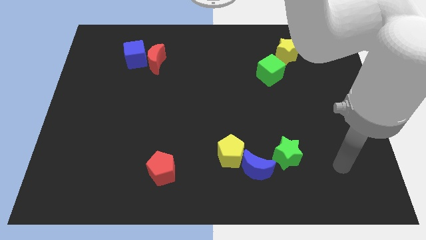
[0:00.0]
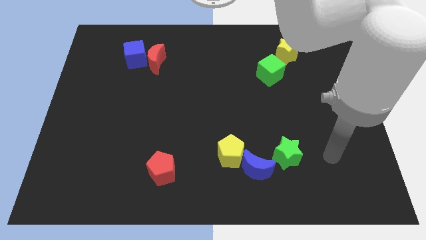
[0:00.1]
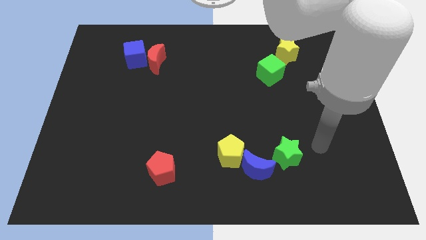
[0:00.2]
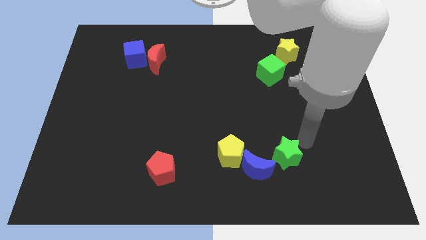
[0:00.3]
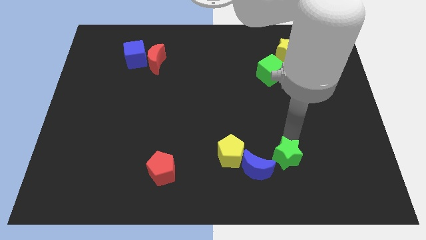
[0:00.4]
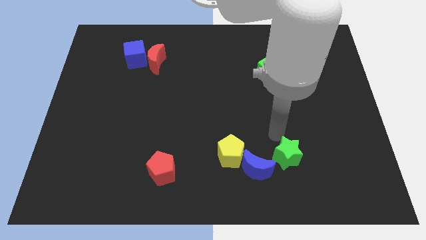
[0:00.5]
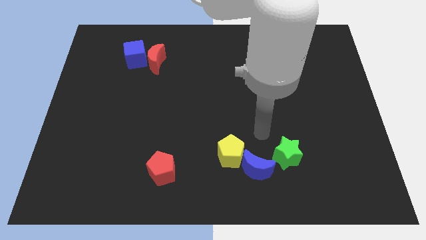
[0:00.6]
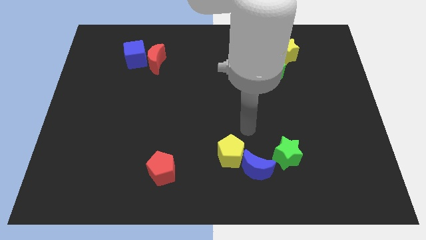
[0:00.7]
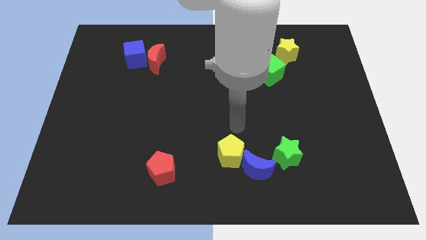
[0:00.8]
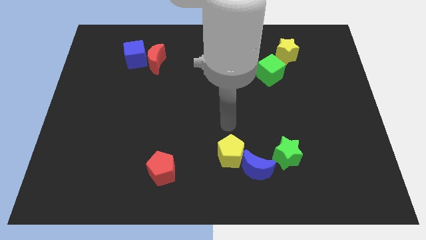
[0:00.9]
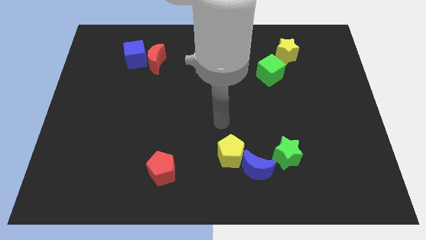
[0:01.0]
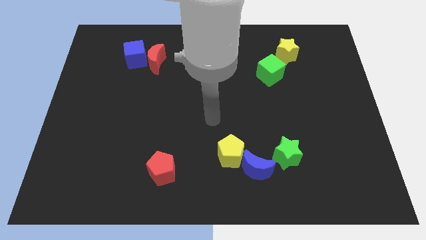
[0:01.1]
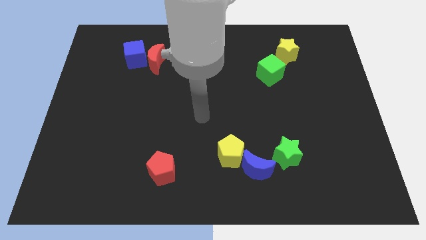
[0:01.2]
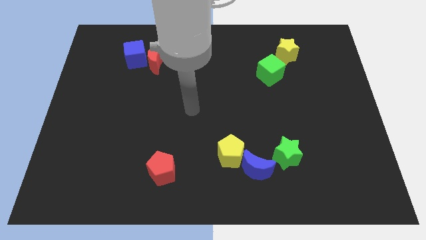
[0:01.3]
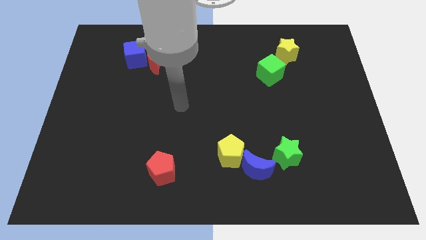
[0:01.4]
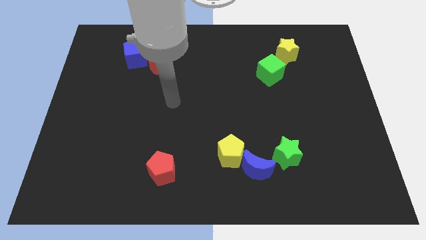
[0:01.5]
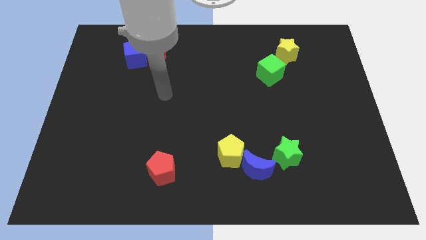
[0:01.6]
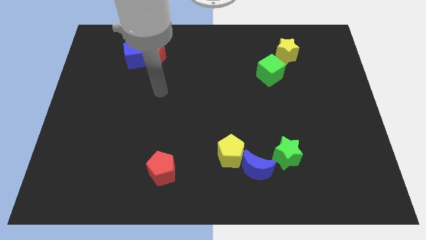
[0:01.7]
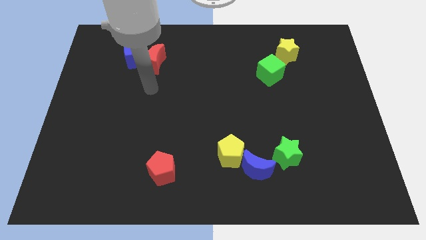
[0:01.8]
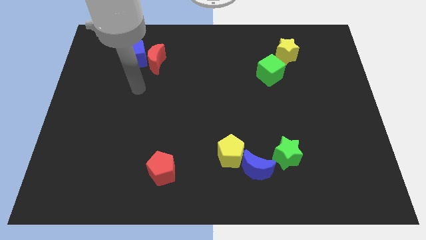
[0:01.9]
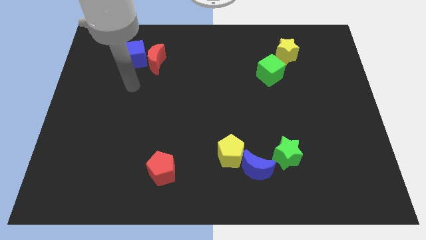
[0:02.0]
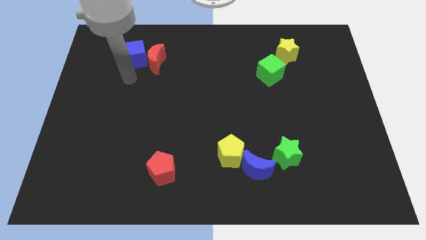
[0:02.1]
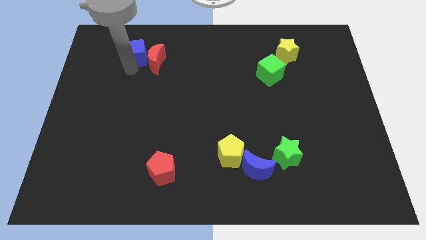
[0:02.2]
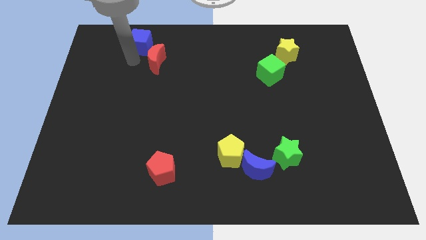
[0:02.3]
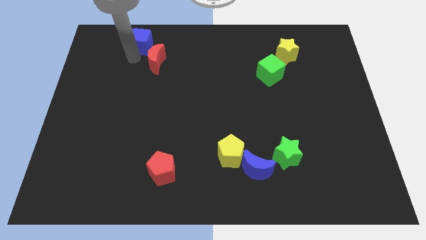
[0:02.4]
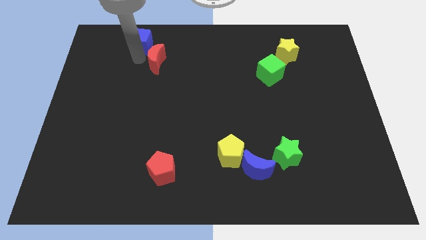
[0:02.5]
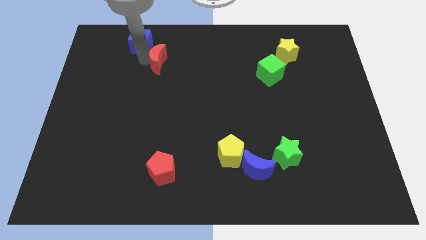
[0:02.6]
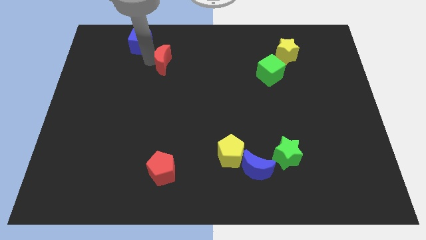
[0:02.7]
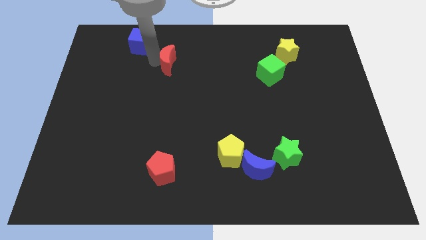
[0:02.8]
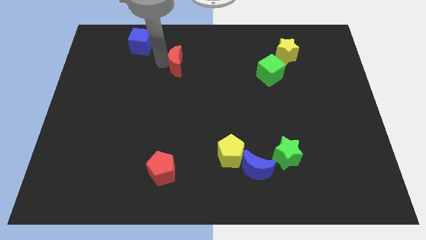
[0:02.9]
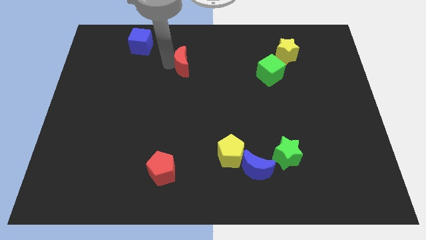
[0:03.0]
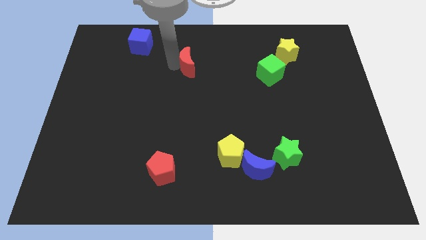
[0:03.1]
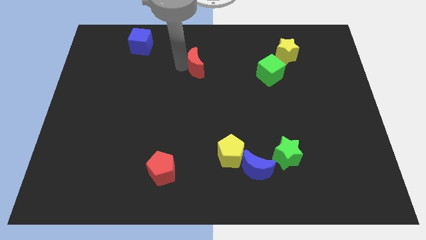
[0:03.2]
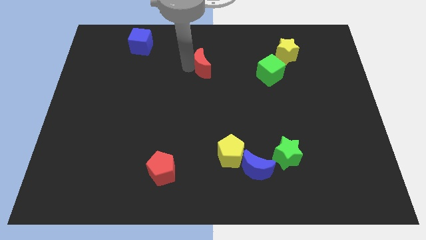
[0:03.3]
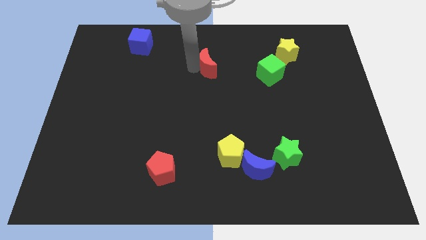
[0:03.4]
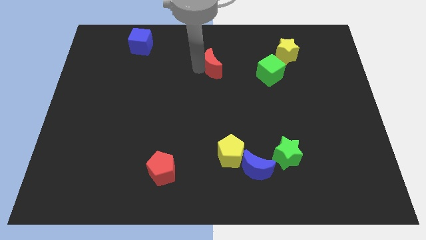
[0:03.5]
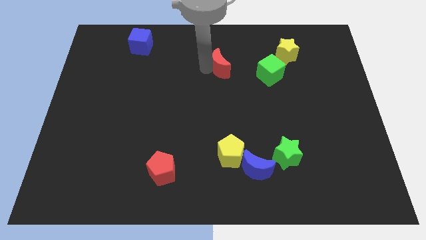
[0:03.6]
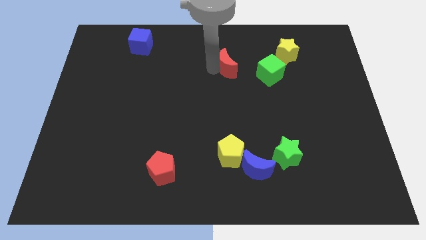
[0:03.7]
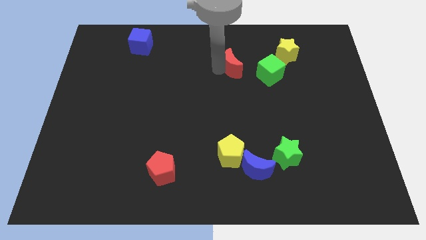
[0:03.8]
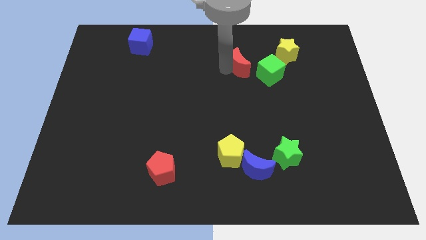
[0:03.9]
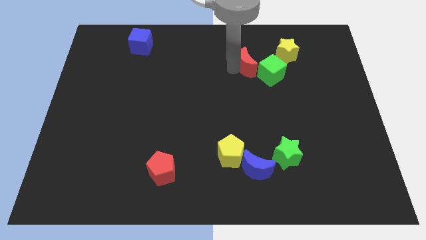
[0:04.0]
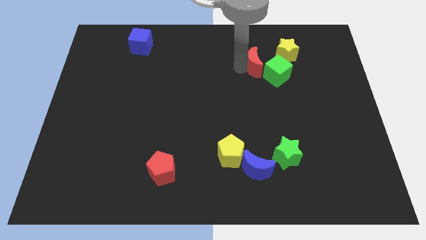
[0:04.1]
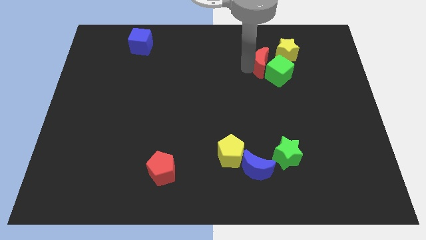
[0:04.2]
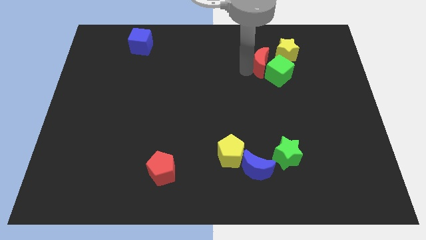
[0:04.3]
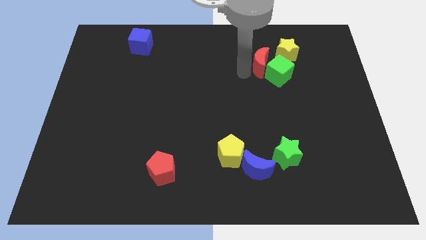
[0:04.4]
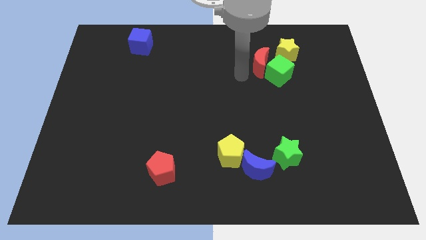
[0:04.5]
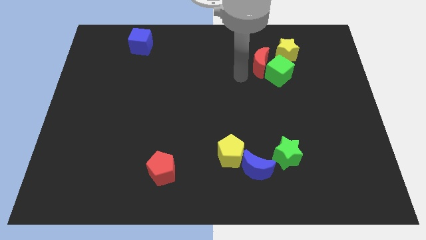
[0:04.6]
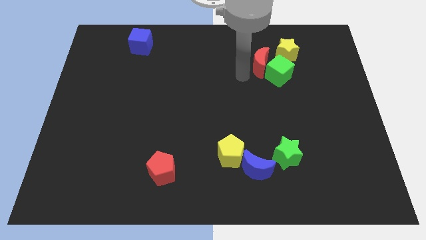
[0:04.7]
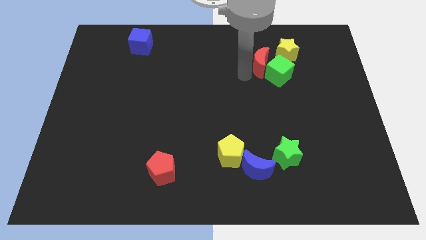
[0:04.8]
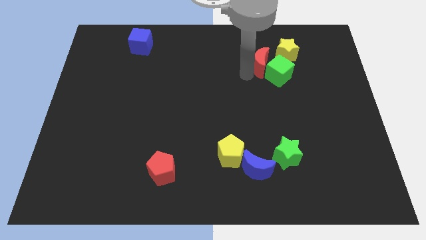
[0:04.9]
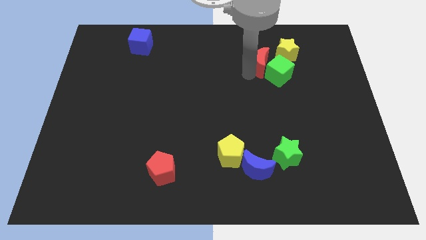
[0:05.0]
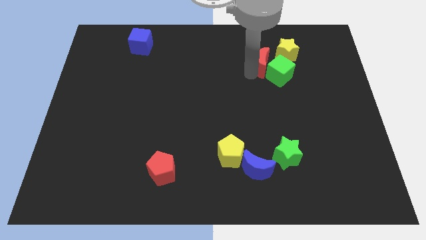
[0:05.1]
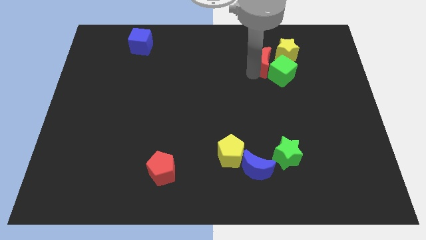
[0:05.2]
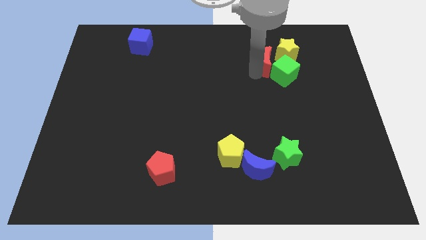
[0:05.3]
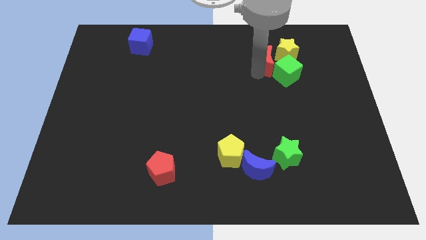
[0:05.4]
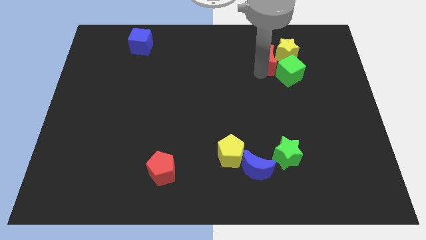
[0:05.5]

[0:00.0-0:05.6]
push the red moon next to the yellow star

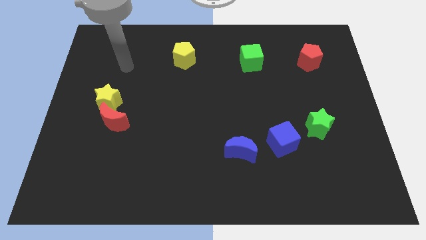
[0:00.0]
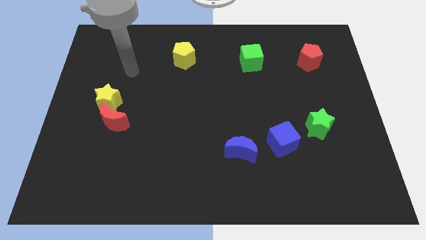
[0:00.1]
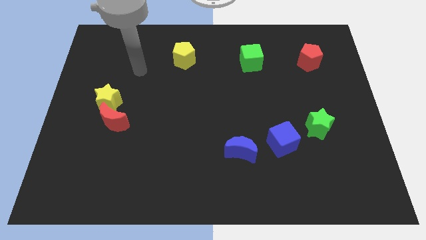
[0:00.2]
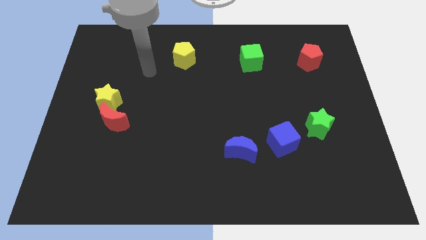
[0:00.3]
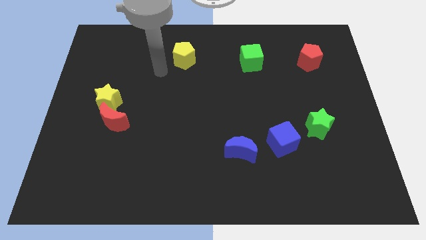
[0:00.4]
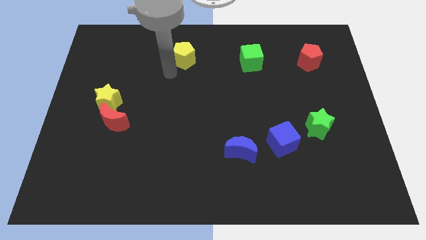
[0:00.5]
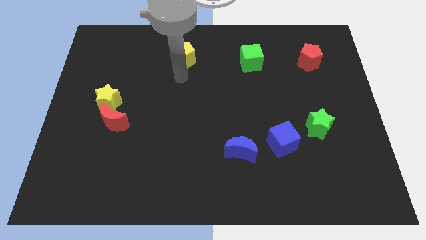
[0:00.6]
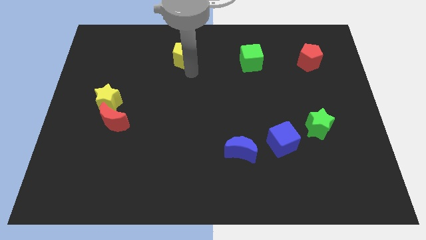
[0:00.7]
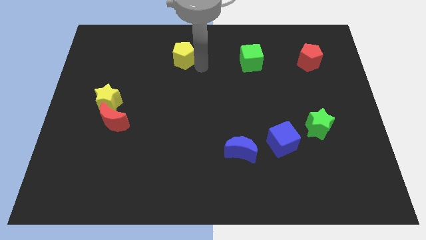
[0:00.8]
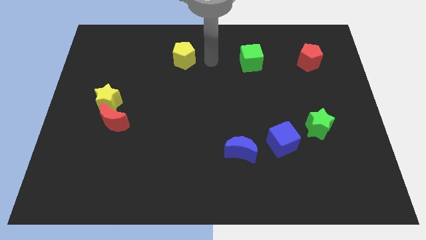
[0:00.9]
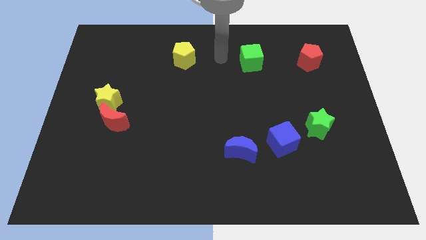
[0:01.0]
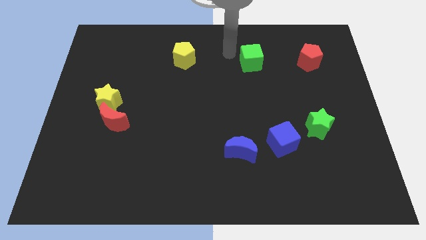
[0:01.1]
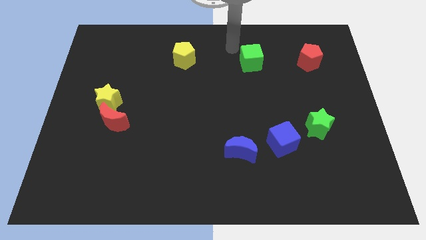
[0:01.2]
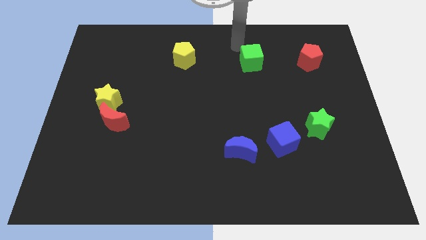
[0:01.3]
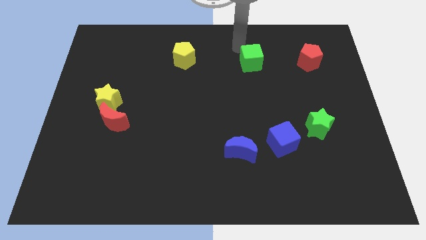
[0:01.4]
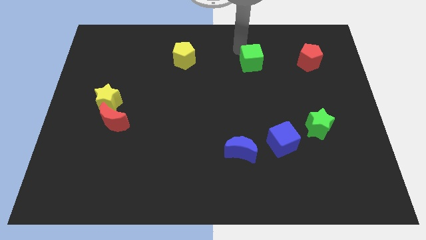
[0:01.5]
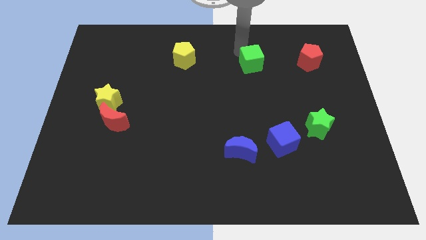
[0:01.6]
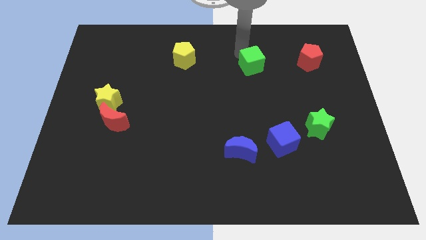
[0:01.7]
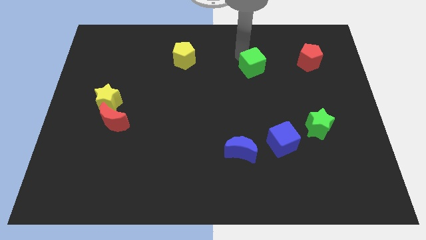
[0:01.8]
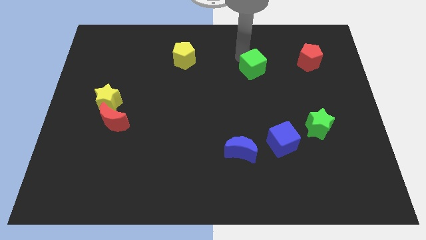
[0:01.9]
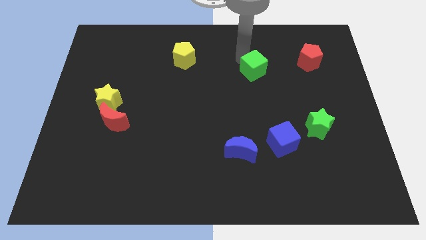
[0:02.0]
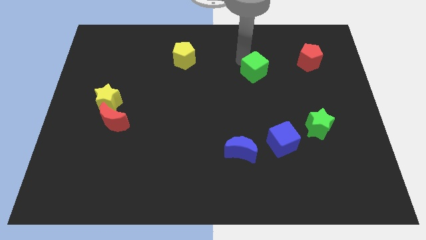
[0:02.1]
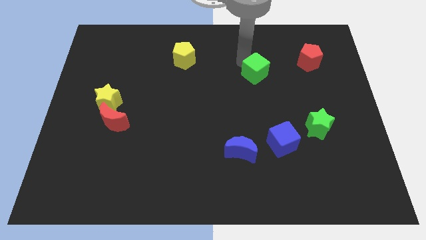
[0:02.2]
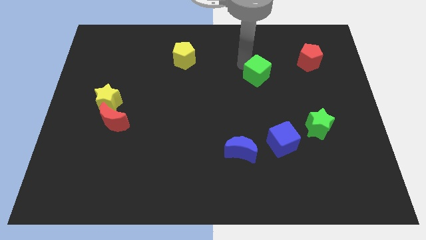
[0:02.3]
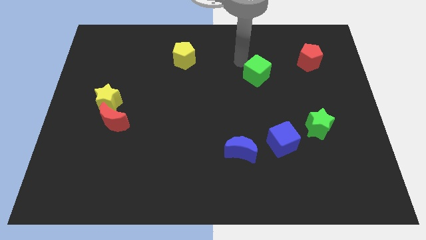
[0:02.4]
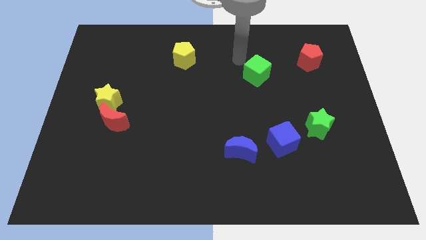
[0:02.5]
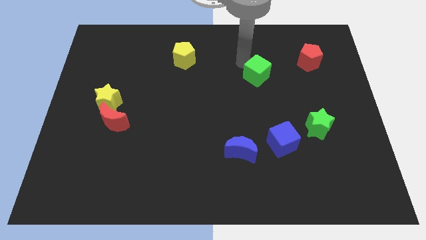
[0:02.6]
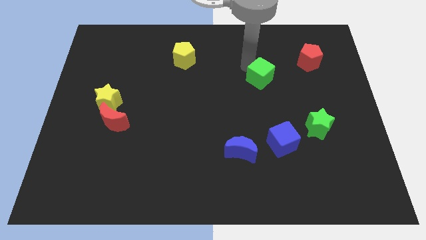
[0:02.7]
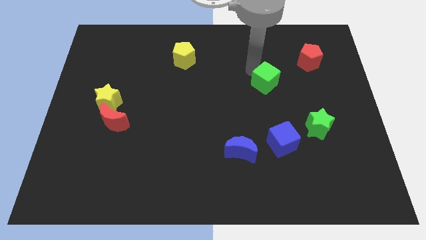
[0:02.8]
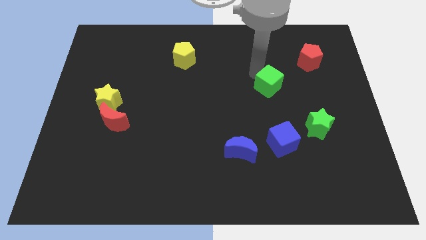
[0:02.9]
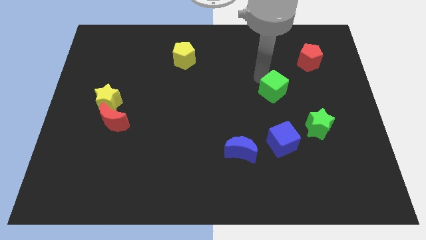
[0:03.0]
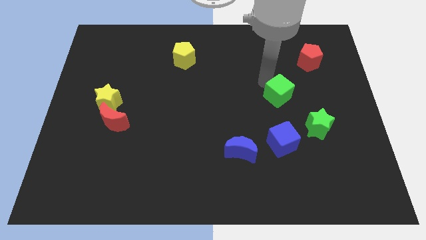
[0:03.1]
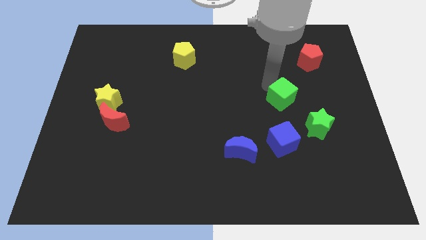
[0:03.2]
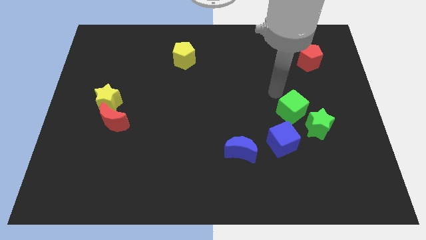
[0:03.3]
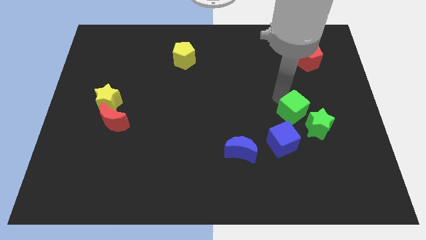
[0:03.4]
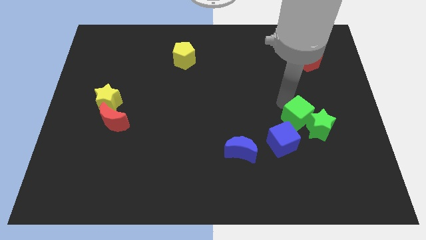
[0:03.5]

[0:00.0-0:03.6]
move the green cube towards the green star
